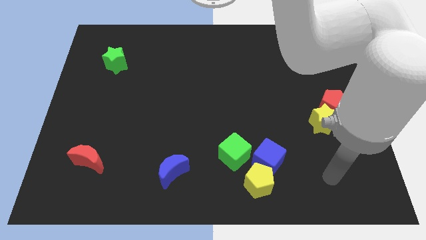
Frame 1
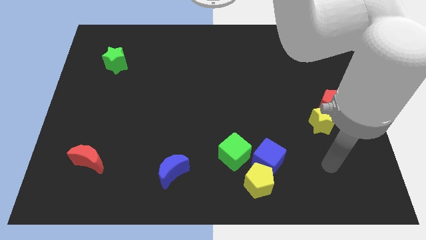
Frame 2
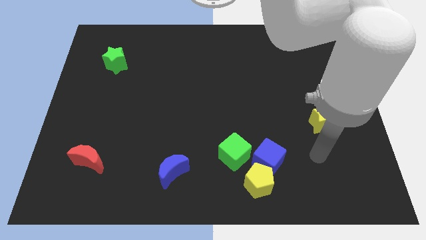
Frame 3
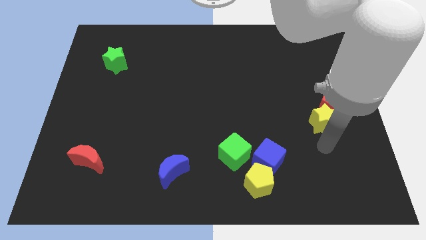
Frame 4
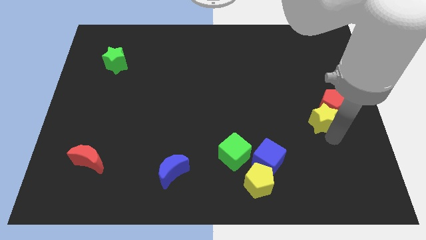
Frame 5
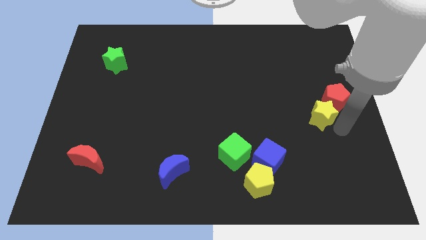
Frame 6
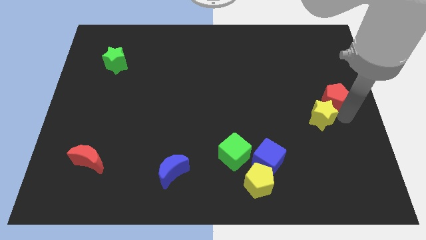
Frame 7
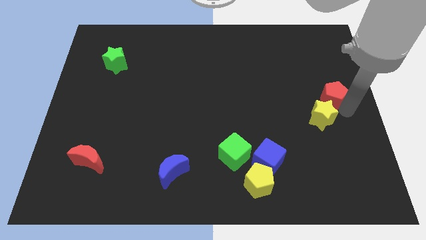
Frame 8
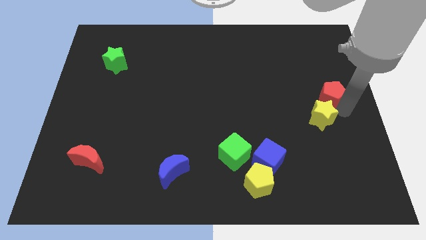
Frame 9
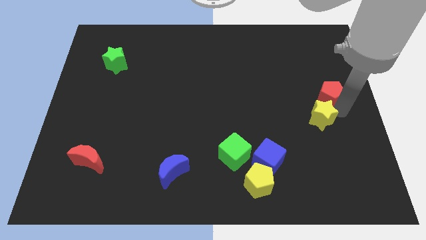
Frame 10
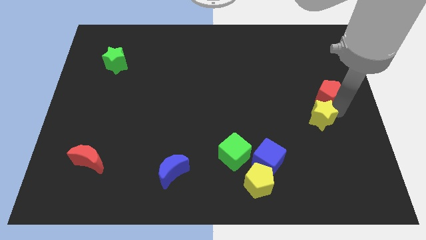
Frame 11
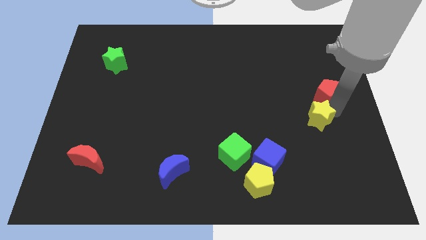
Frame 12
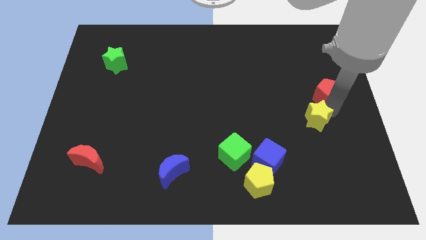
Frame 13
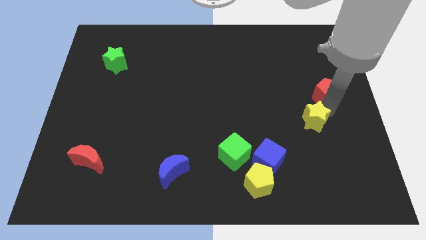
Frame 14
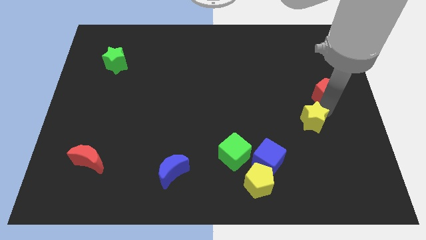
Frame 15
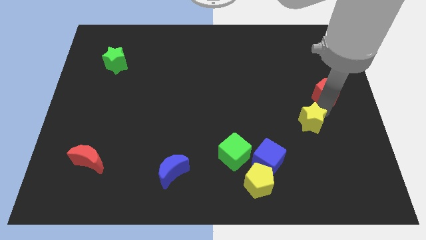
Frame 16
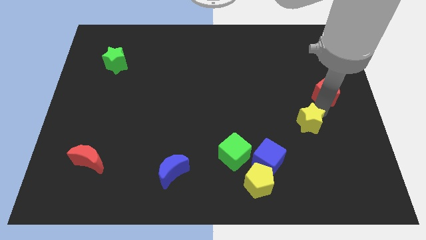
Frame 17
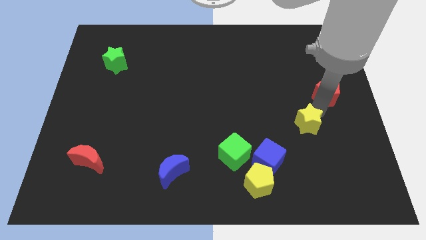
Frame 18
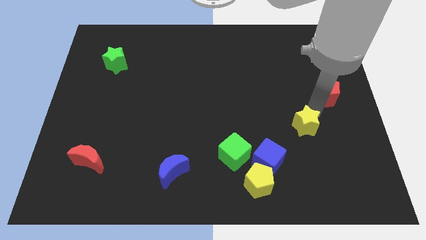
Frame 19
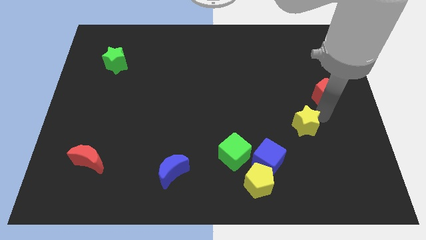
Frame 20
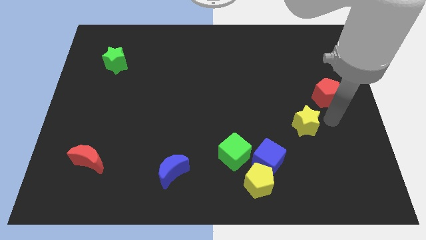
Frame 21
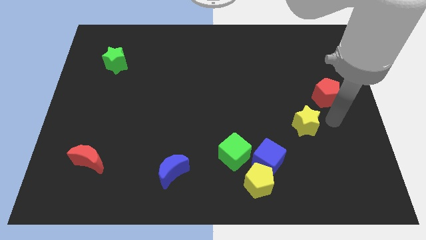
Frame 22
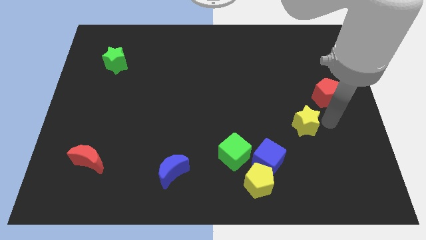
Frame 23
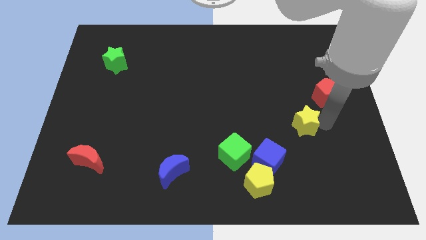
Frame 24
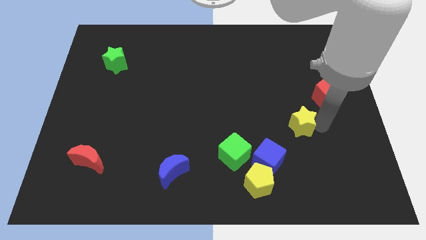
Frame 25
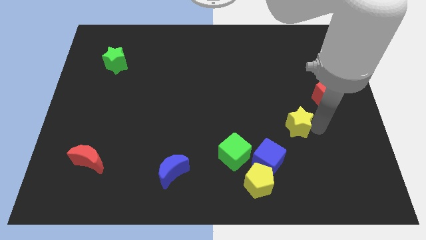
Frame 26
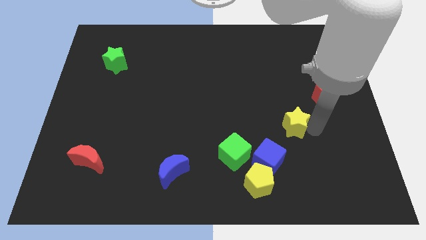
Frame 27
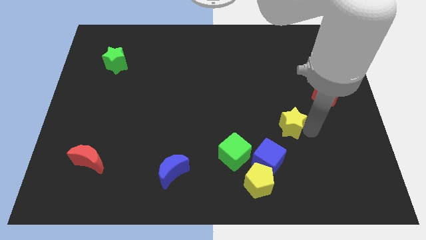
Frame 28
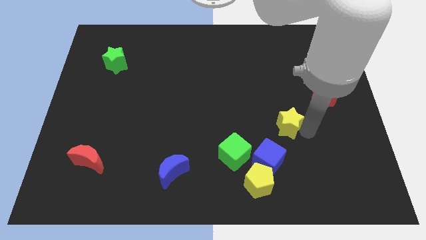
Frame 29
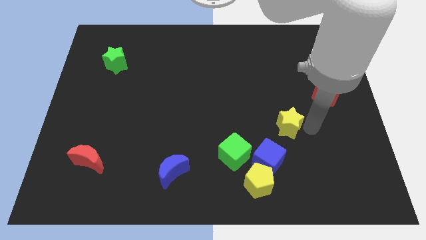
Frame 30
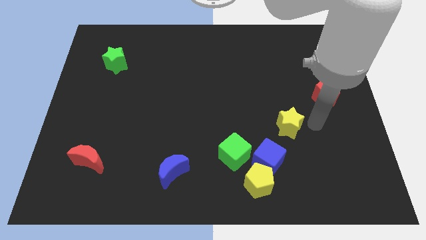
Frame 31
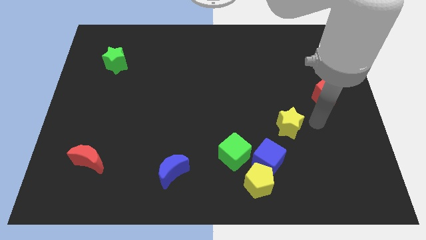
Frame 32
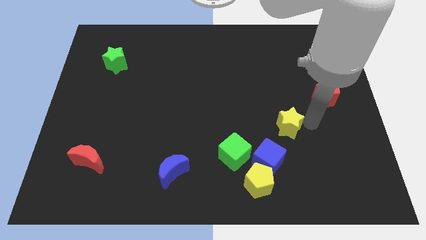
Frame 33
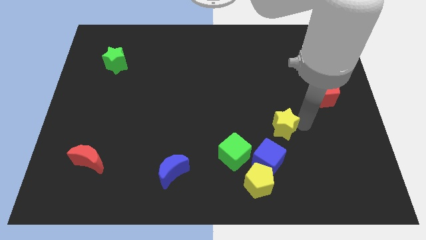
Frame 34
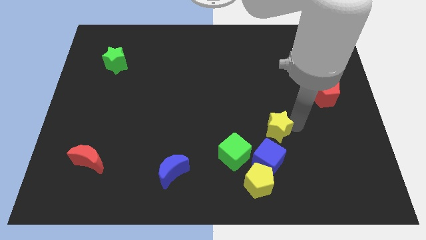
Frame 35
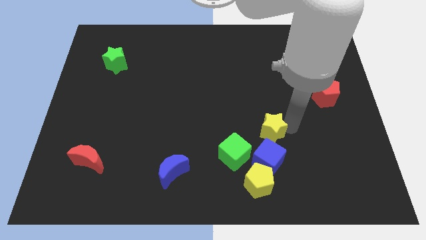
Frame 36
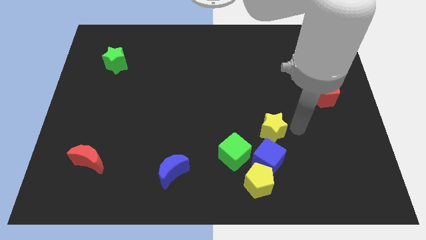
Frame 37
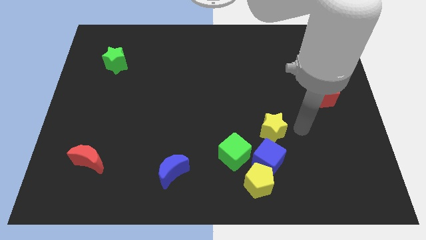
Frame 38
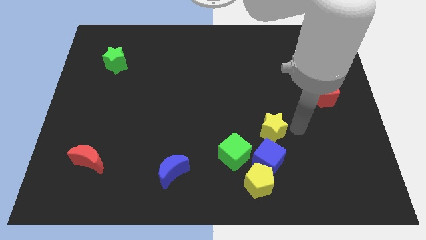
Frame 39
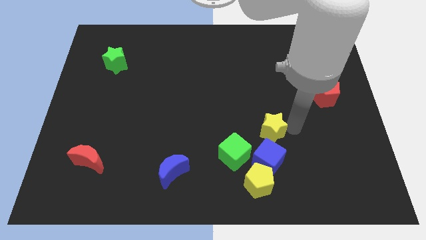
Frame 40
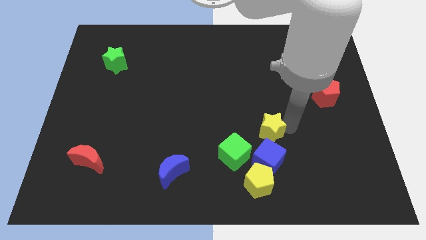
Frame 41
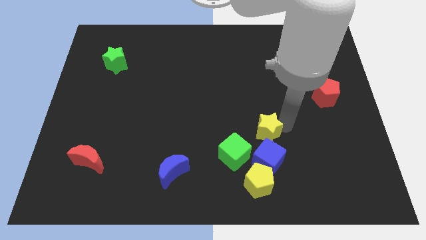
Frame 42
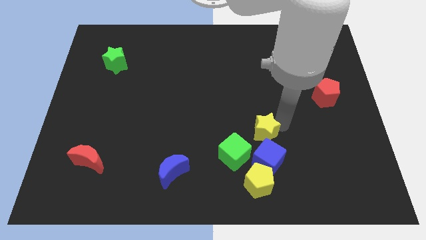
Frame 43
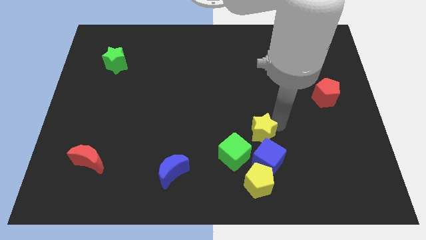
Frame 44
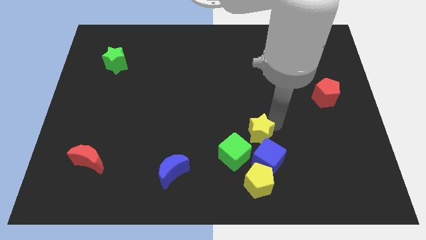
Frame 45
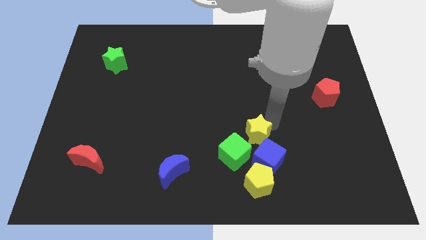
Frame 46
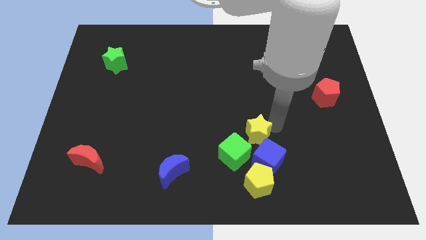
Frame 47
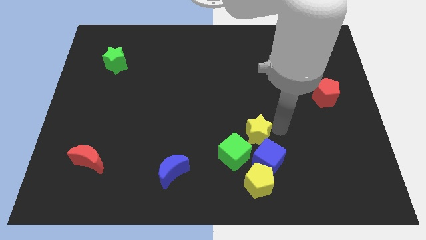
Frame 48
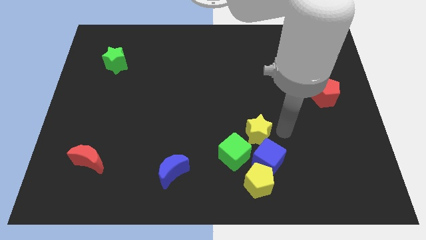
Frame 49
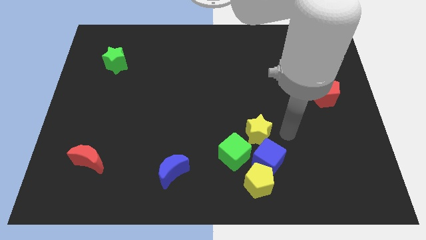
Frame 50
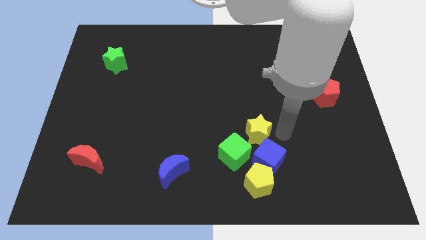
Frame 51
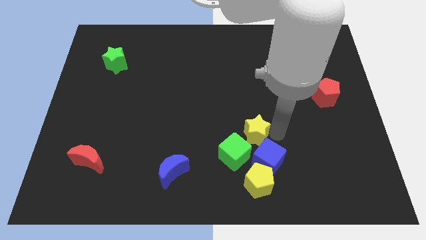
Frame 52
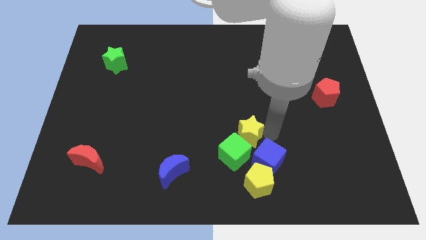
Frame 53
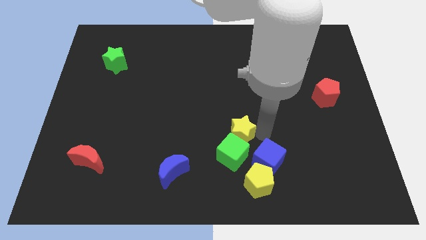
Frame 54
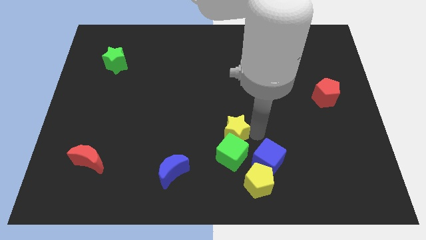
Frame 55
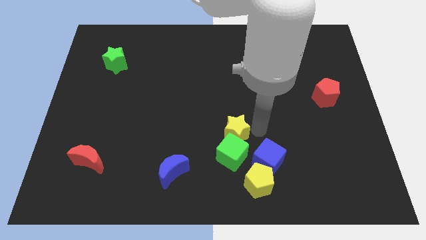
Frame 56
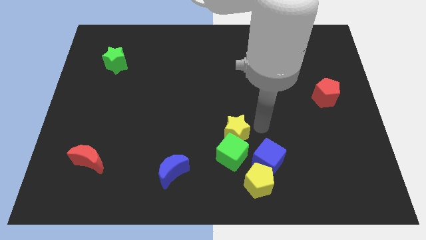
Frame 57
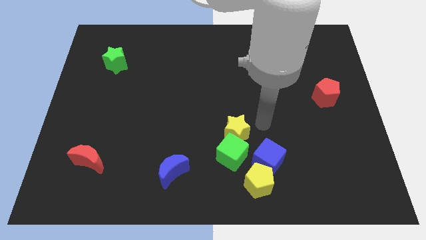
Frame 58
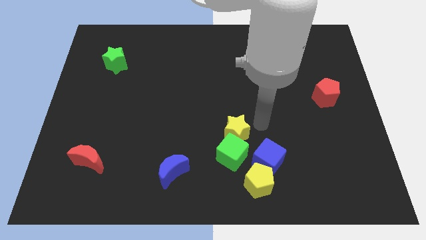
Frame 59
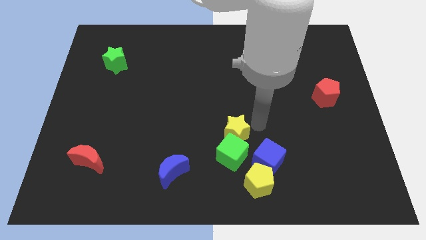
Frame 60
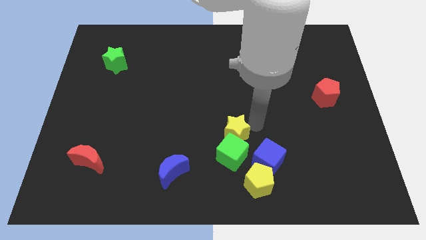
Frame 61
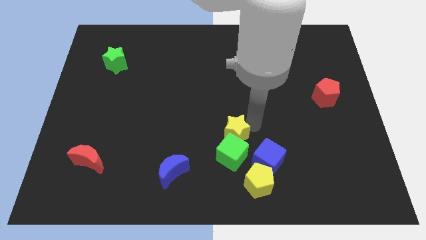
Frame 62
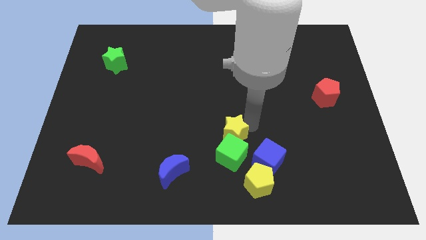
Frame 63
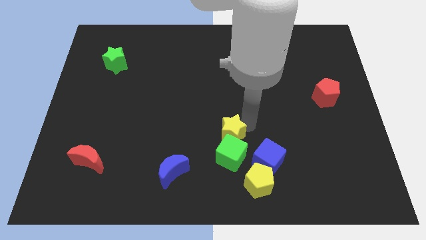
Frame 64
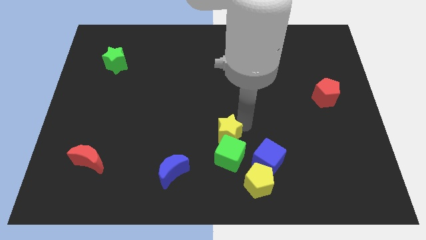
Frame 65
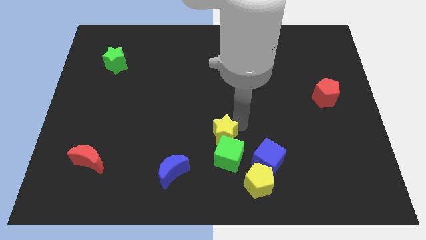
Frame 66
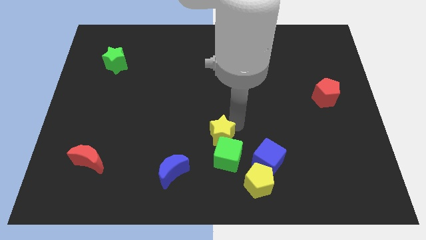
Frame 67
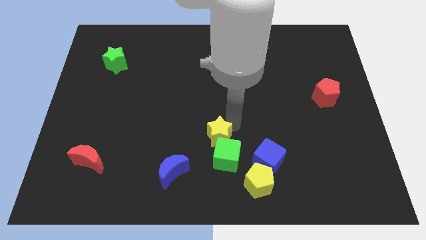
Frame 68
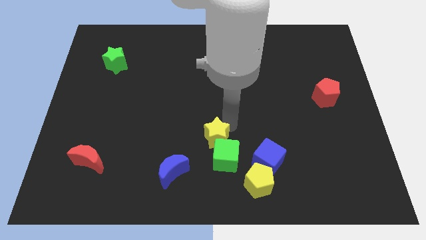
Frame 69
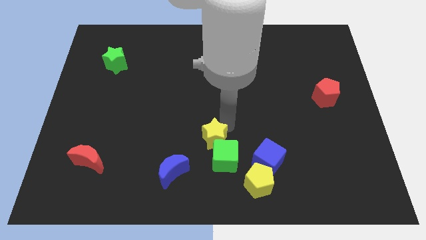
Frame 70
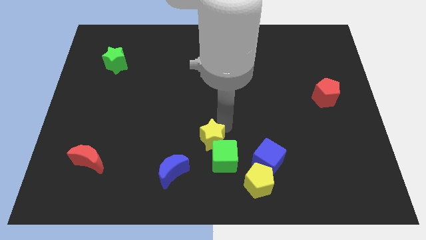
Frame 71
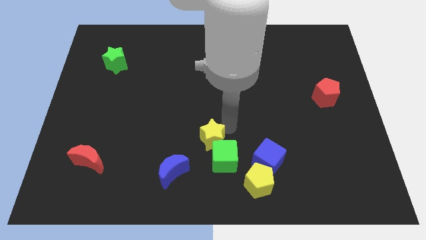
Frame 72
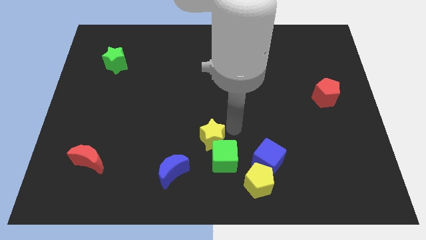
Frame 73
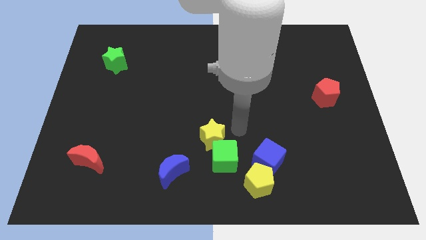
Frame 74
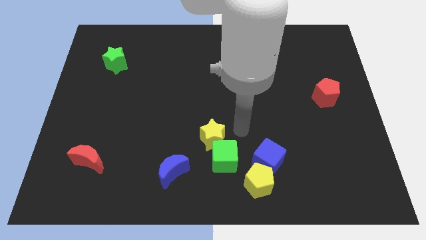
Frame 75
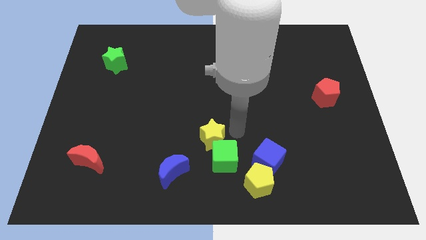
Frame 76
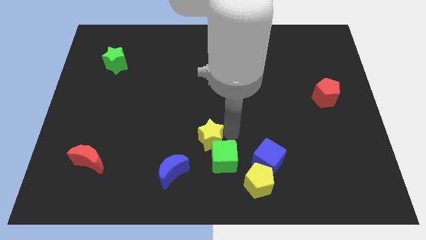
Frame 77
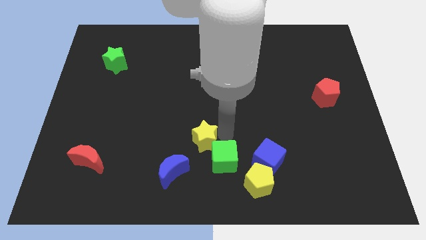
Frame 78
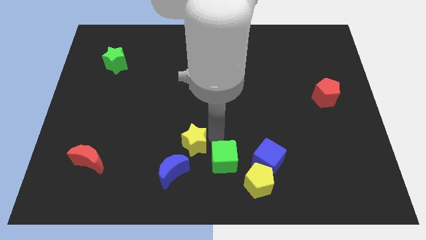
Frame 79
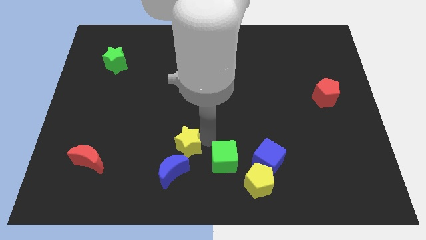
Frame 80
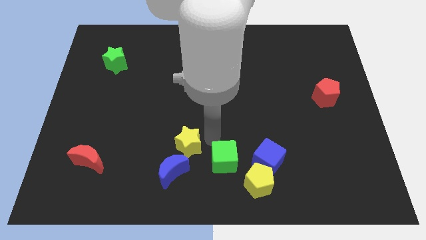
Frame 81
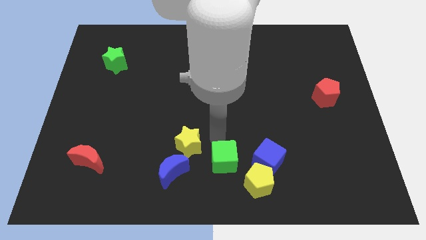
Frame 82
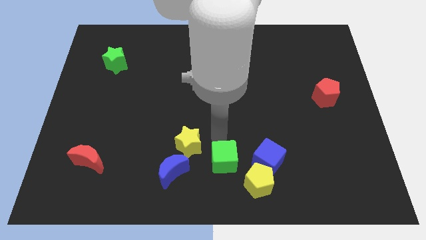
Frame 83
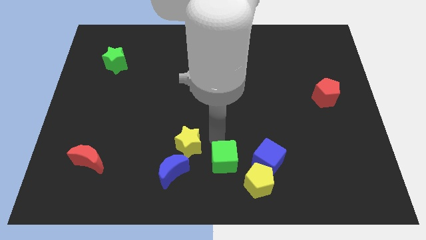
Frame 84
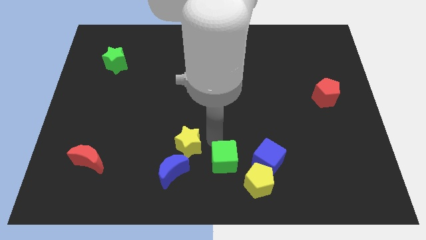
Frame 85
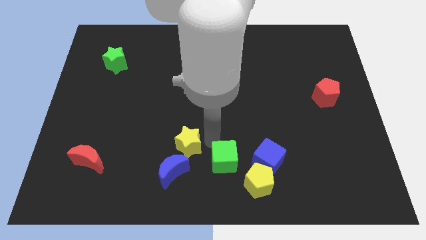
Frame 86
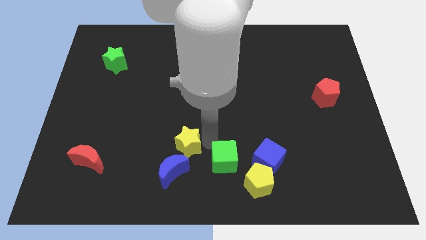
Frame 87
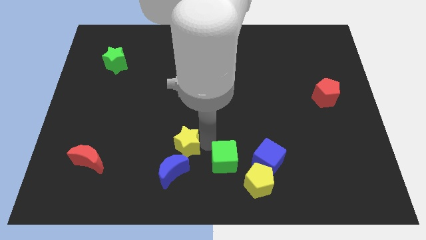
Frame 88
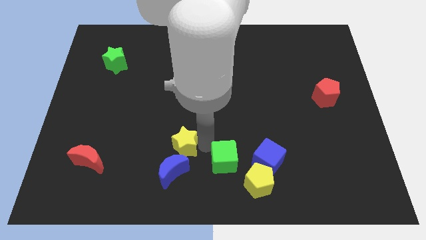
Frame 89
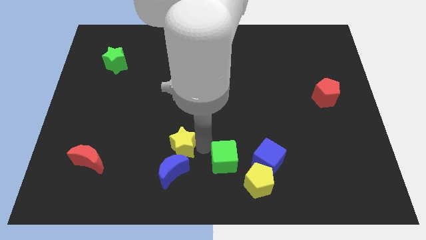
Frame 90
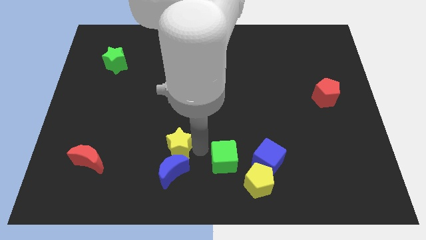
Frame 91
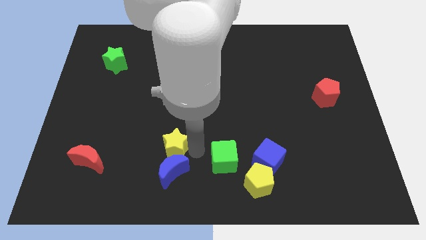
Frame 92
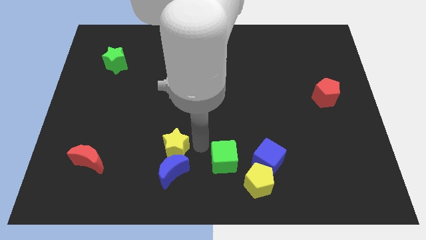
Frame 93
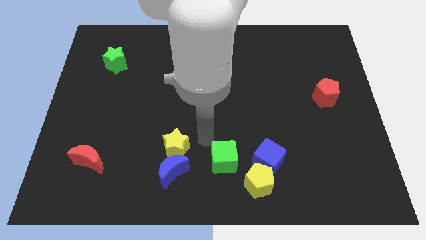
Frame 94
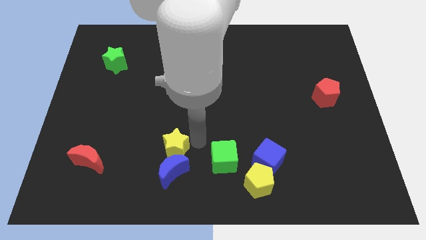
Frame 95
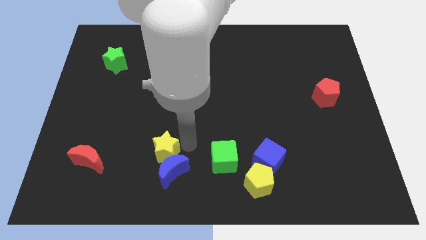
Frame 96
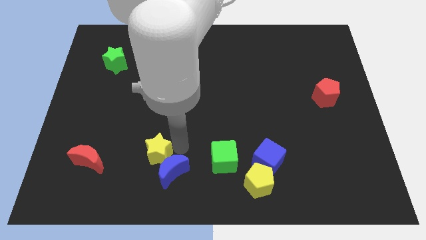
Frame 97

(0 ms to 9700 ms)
put the yellow star to the right side of the red moon
